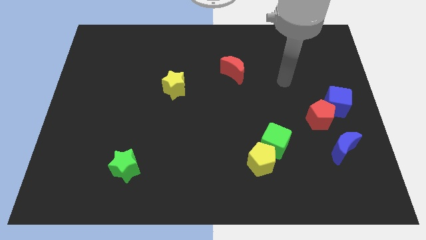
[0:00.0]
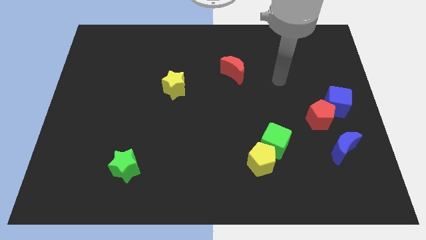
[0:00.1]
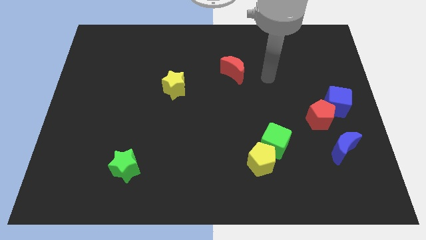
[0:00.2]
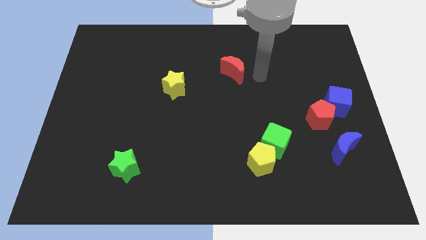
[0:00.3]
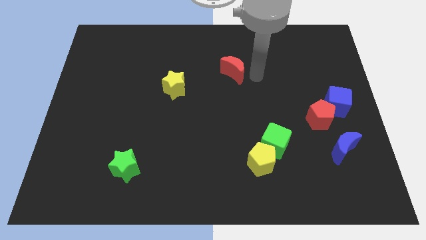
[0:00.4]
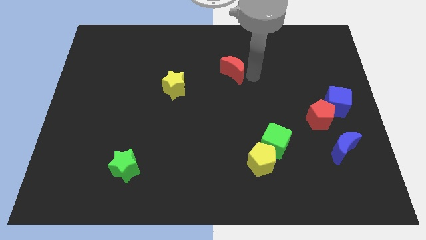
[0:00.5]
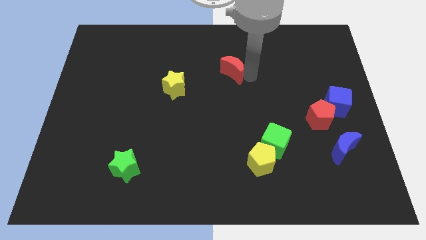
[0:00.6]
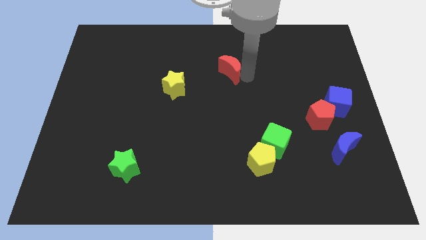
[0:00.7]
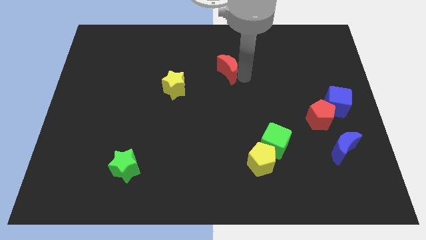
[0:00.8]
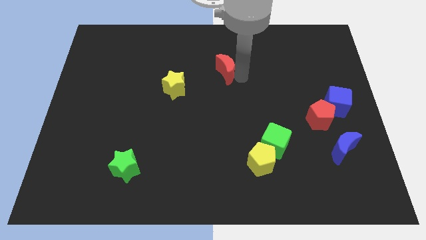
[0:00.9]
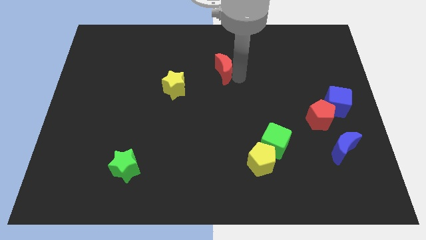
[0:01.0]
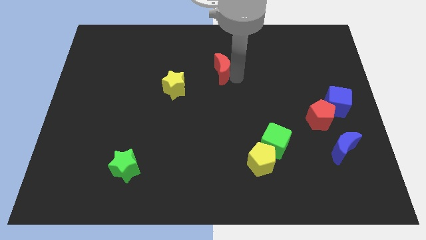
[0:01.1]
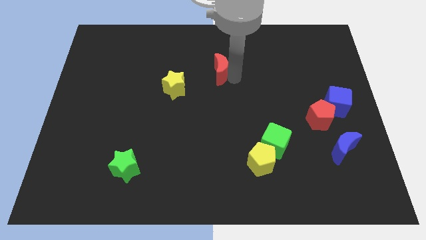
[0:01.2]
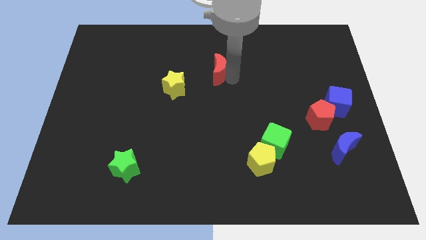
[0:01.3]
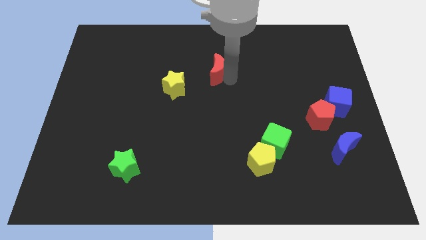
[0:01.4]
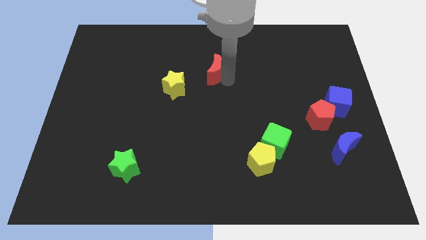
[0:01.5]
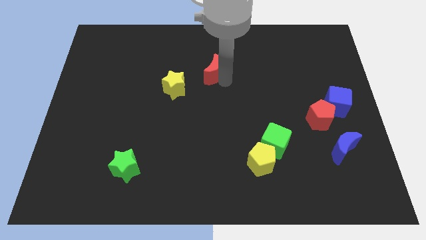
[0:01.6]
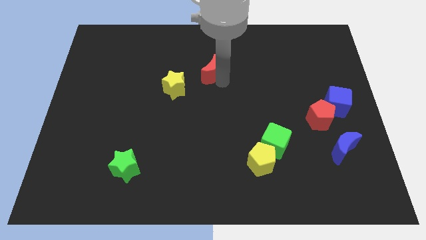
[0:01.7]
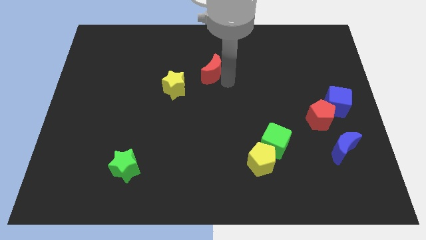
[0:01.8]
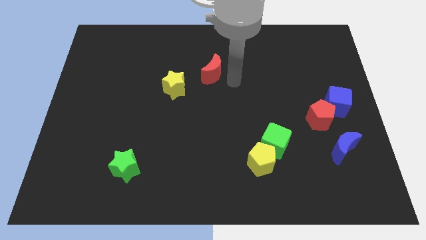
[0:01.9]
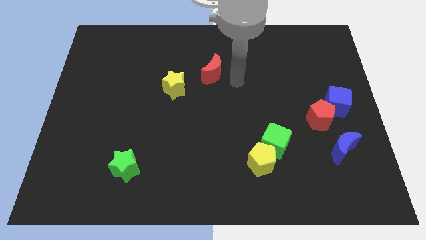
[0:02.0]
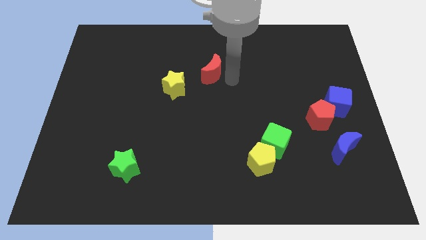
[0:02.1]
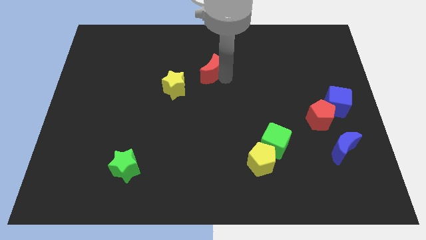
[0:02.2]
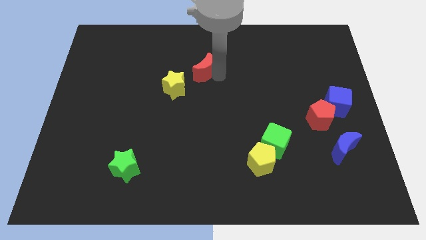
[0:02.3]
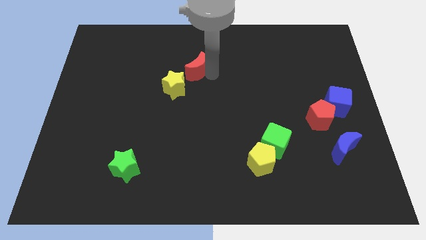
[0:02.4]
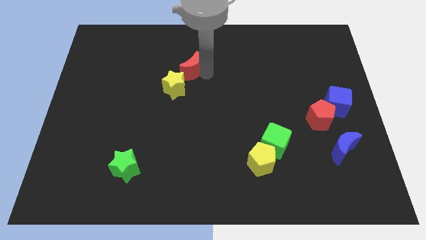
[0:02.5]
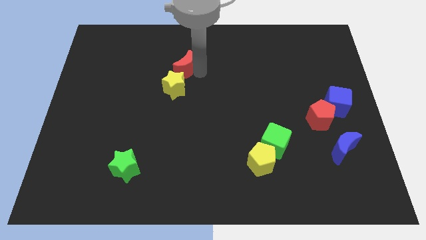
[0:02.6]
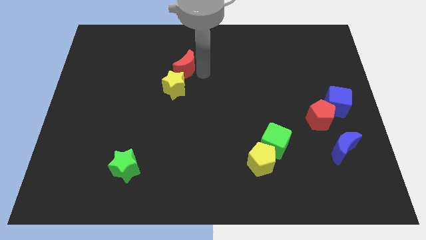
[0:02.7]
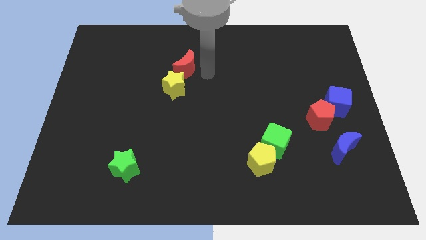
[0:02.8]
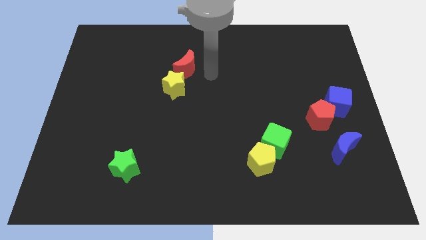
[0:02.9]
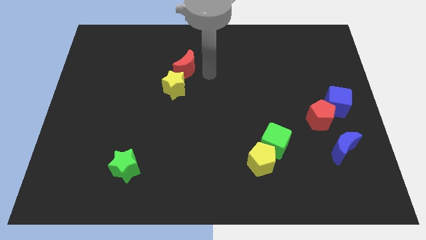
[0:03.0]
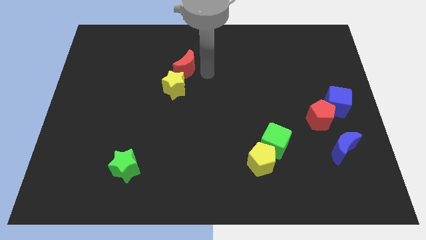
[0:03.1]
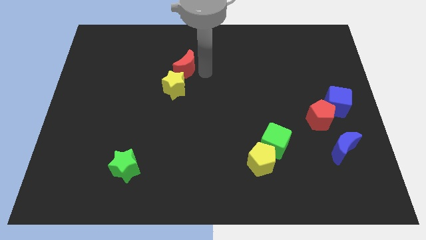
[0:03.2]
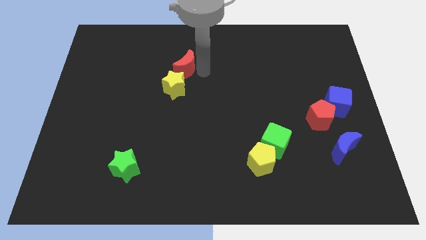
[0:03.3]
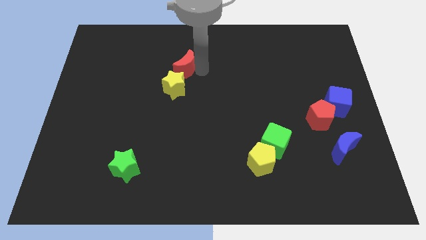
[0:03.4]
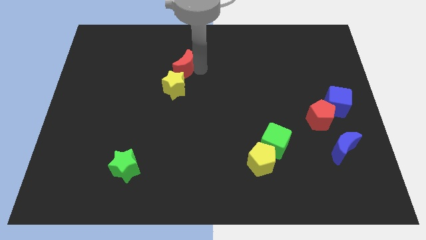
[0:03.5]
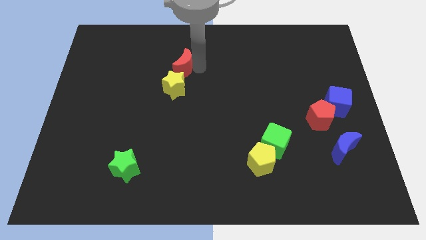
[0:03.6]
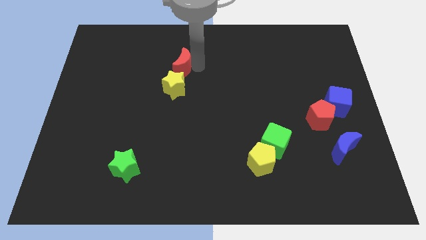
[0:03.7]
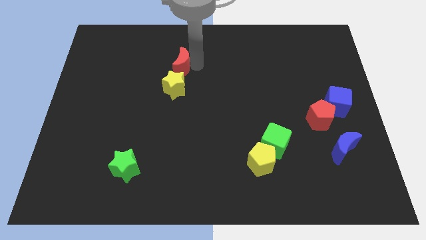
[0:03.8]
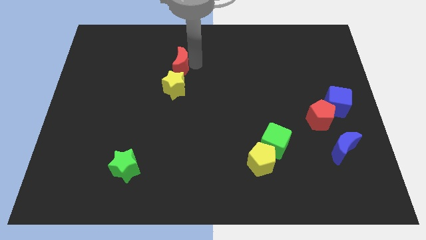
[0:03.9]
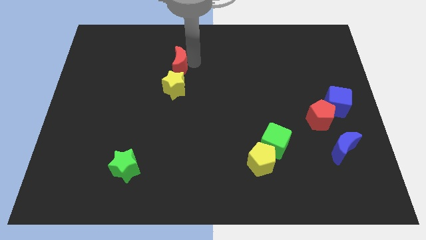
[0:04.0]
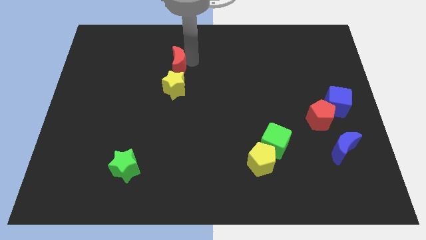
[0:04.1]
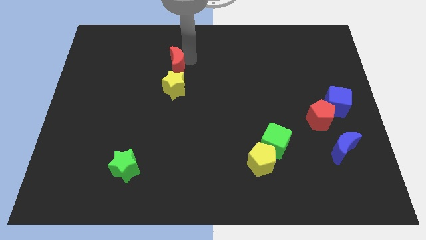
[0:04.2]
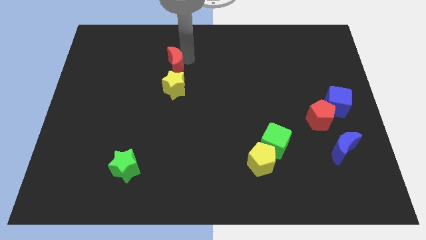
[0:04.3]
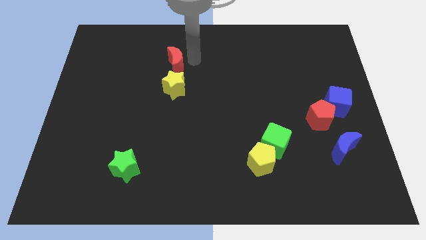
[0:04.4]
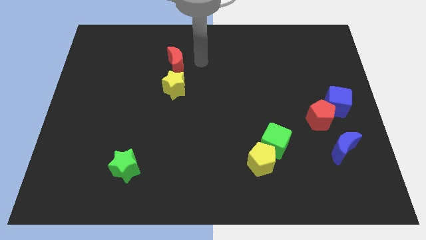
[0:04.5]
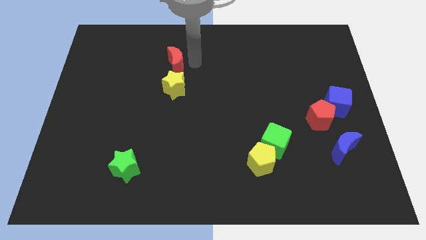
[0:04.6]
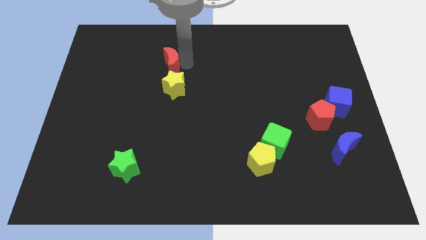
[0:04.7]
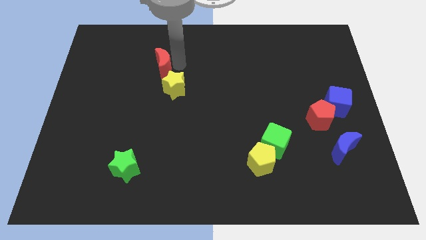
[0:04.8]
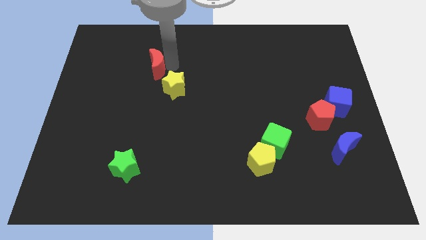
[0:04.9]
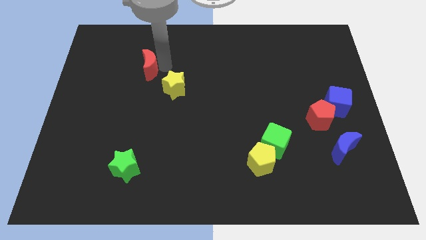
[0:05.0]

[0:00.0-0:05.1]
move the red moon to the left

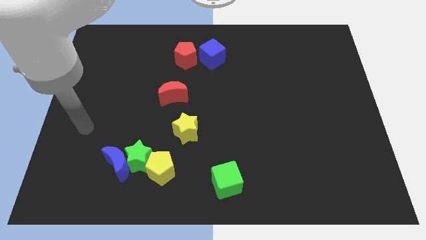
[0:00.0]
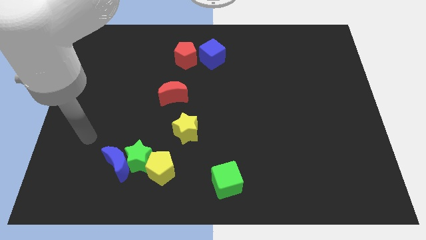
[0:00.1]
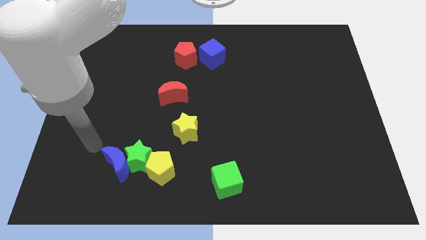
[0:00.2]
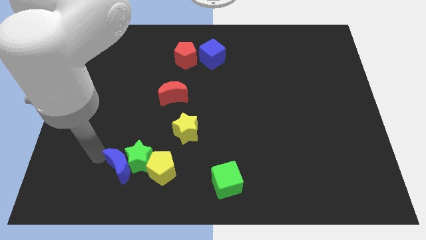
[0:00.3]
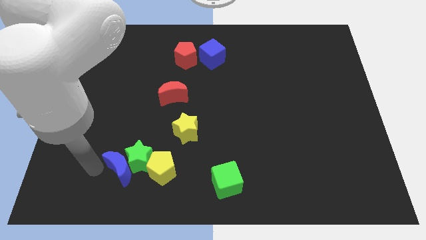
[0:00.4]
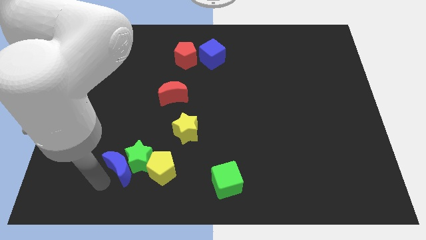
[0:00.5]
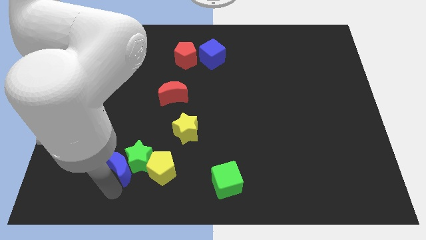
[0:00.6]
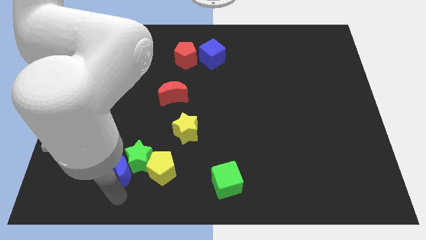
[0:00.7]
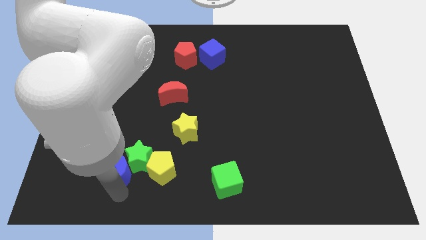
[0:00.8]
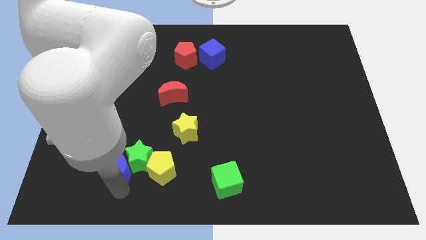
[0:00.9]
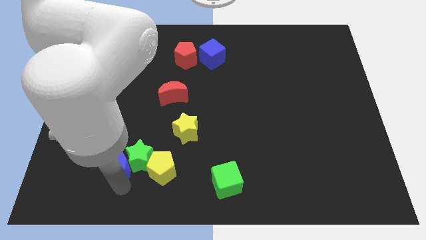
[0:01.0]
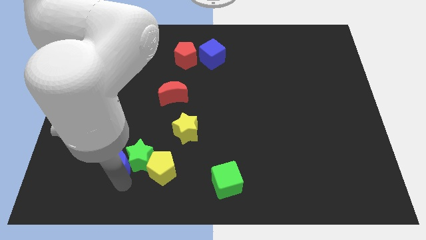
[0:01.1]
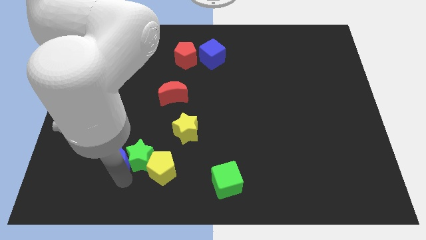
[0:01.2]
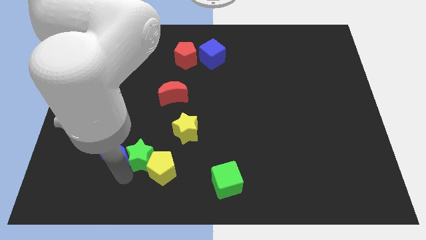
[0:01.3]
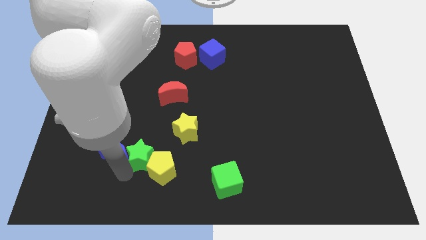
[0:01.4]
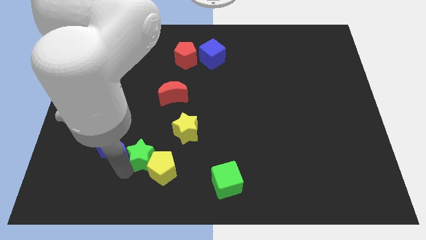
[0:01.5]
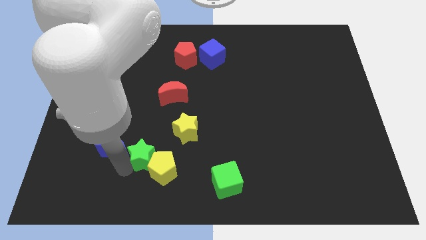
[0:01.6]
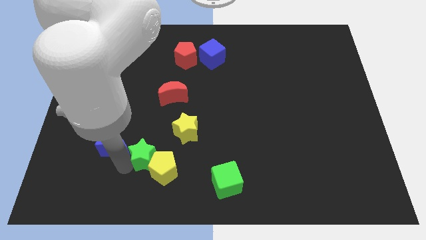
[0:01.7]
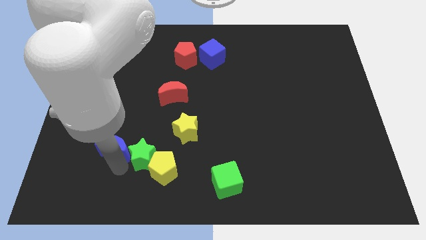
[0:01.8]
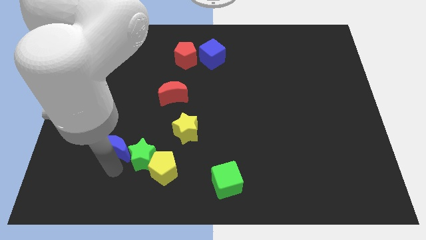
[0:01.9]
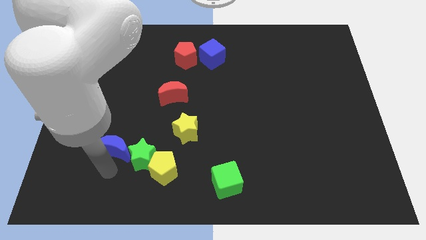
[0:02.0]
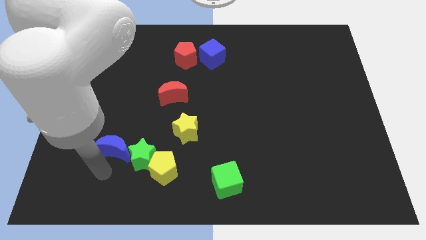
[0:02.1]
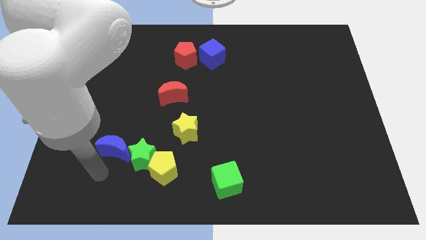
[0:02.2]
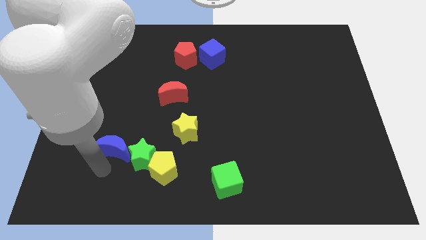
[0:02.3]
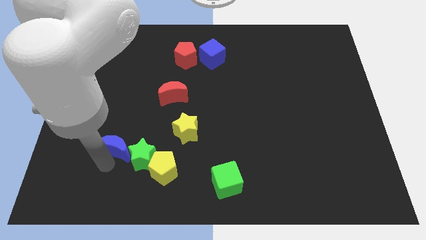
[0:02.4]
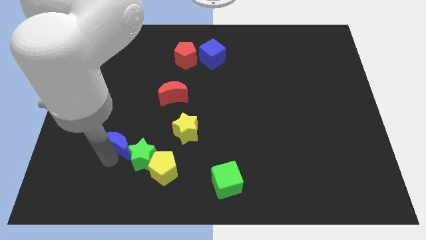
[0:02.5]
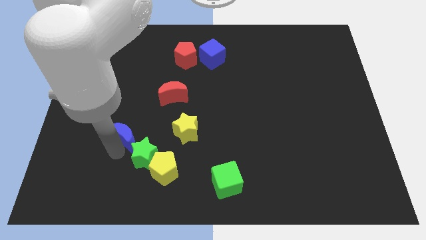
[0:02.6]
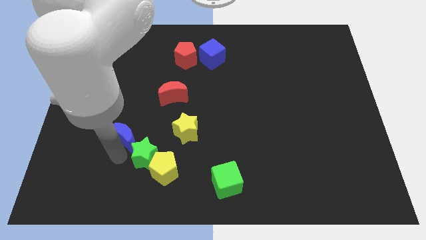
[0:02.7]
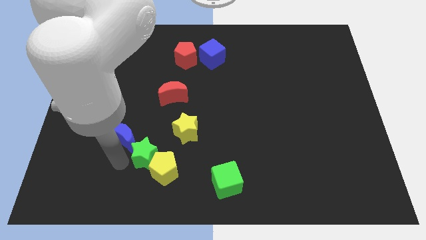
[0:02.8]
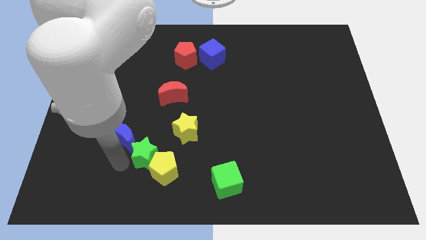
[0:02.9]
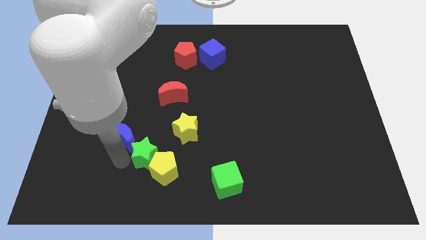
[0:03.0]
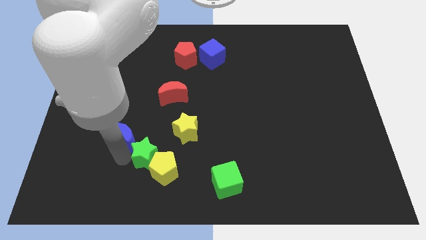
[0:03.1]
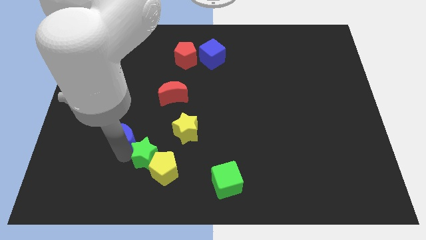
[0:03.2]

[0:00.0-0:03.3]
slightly move the blue moon upwards
